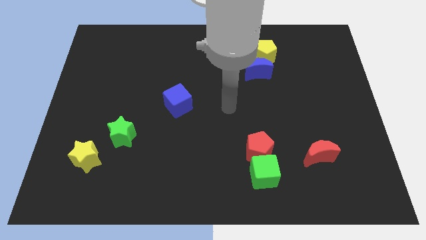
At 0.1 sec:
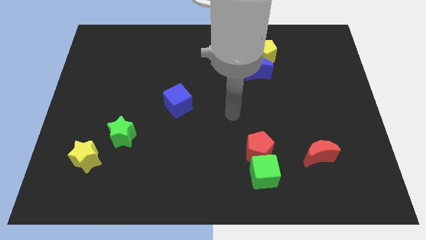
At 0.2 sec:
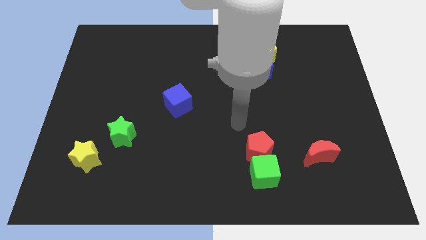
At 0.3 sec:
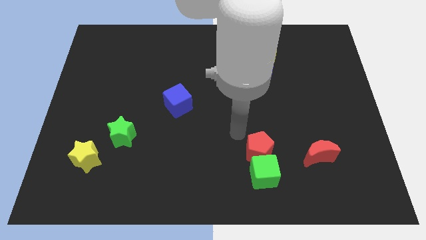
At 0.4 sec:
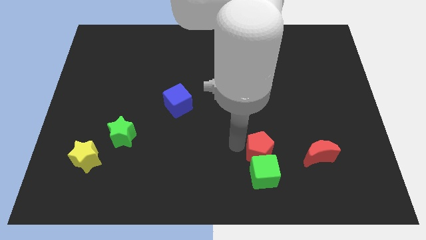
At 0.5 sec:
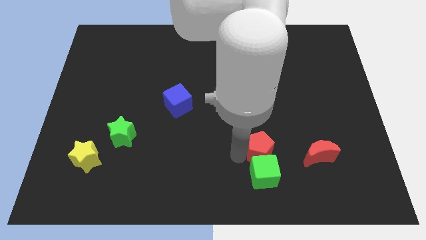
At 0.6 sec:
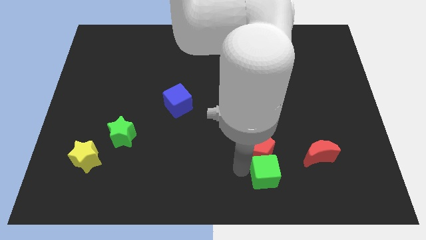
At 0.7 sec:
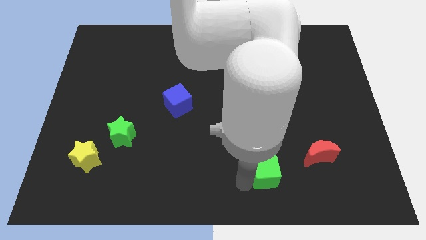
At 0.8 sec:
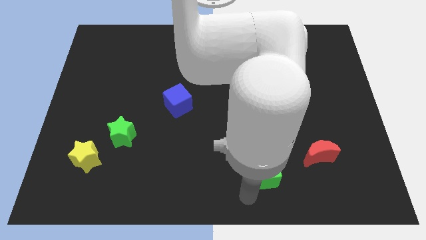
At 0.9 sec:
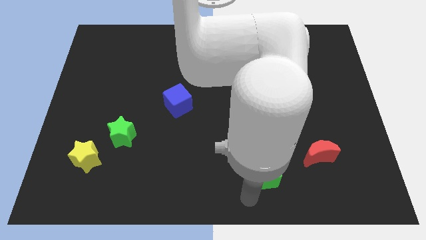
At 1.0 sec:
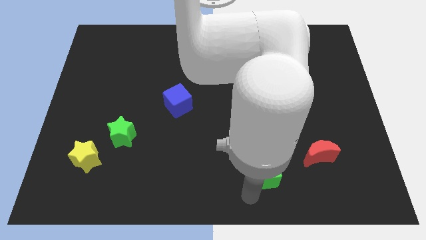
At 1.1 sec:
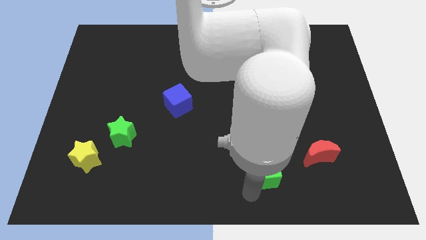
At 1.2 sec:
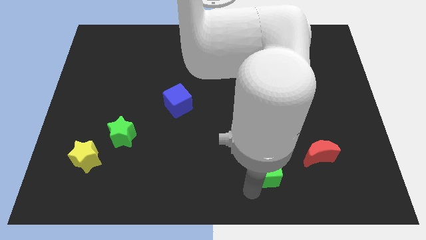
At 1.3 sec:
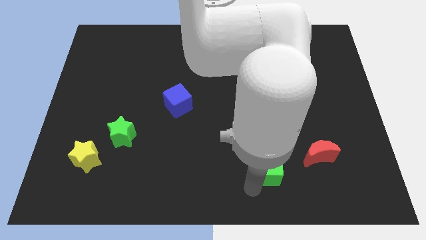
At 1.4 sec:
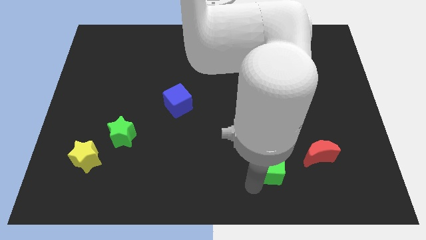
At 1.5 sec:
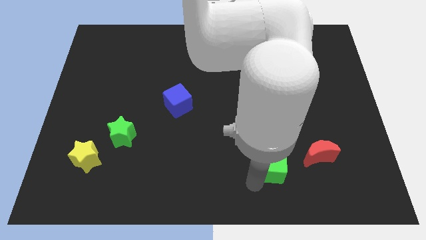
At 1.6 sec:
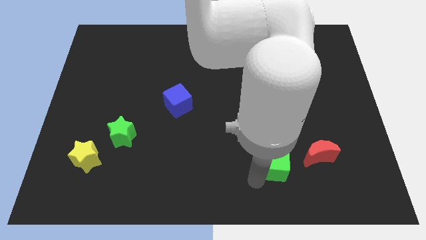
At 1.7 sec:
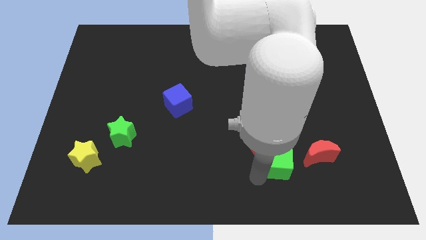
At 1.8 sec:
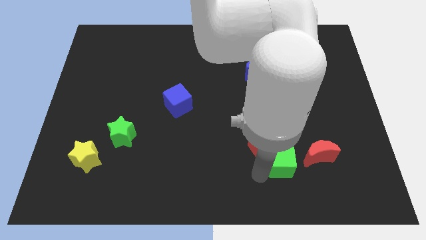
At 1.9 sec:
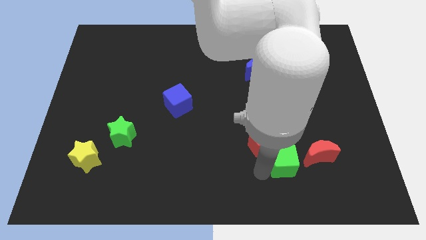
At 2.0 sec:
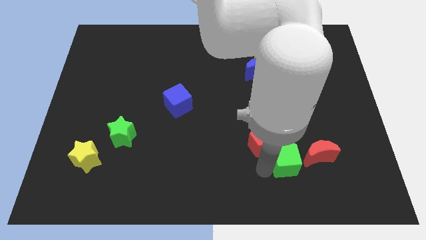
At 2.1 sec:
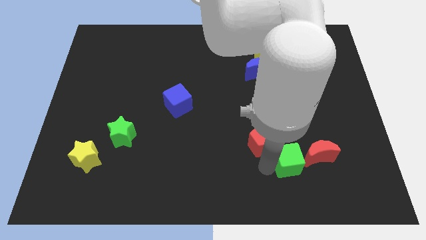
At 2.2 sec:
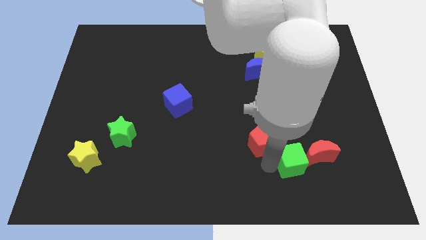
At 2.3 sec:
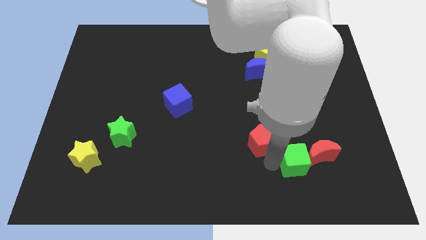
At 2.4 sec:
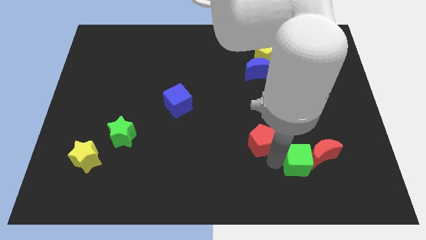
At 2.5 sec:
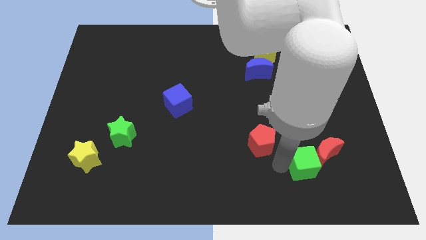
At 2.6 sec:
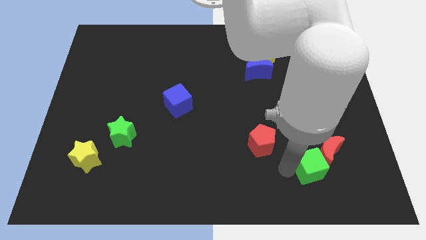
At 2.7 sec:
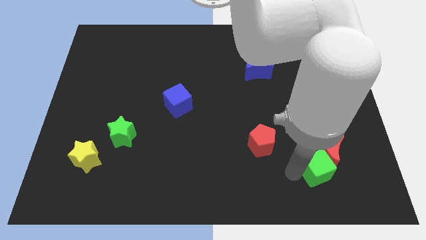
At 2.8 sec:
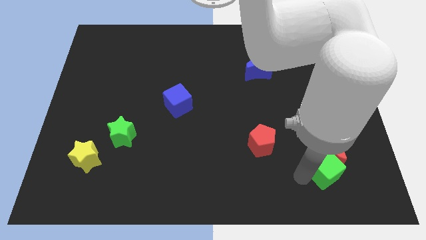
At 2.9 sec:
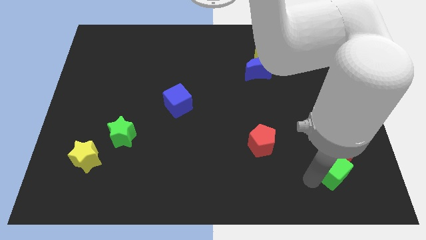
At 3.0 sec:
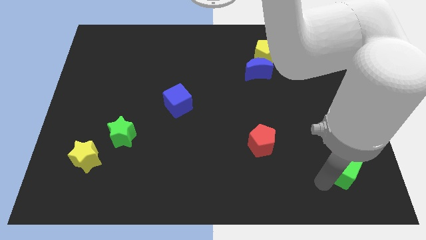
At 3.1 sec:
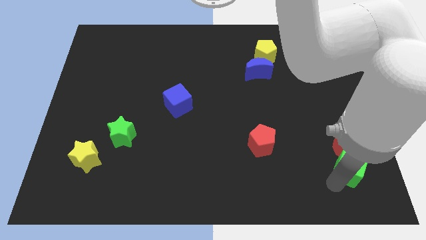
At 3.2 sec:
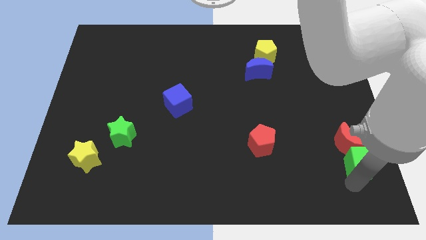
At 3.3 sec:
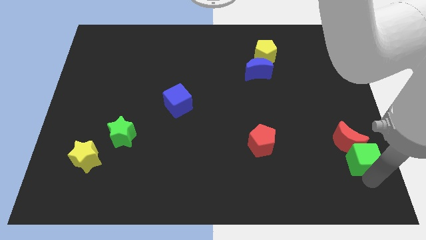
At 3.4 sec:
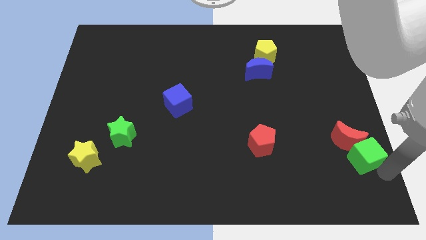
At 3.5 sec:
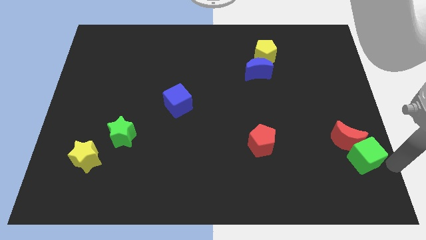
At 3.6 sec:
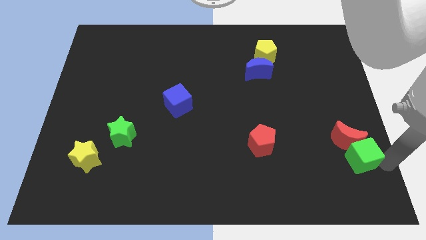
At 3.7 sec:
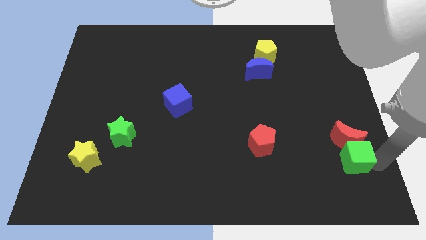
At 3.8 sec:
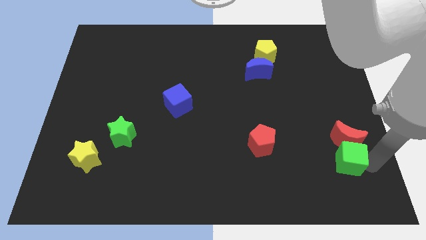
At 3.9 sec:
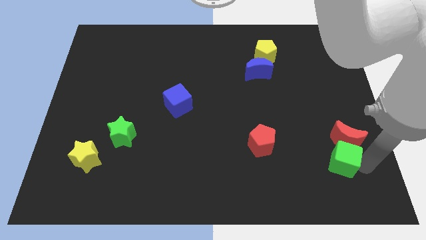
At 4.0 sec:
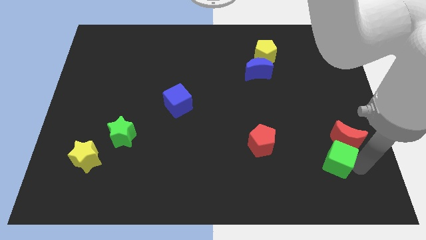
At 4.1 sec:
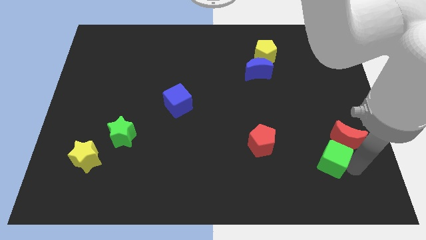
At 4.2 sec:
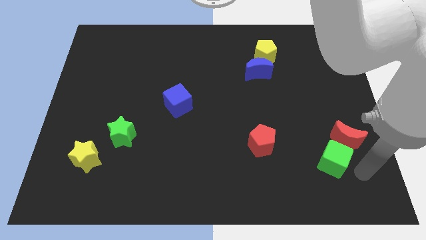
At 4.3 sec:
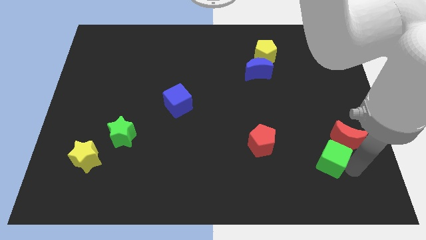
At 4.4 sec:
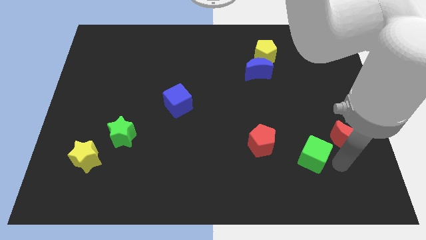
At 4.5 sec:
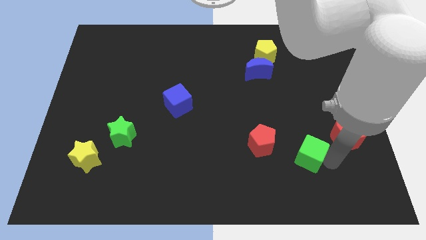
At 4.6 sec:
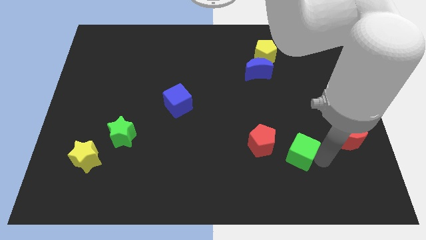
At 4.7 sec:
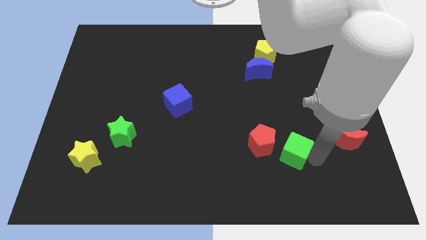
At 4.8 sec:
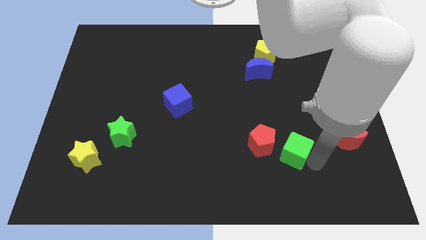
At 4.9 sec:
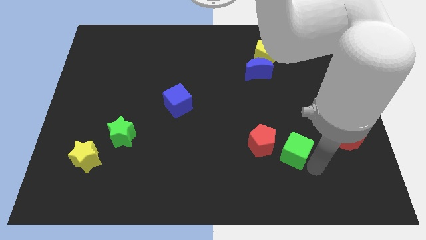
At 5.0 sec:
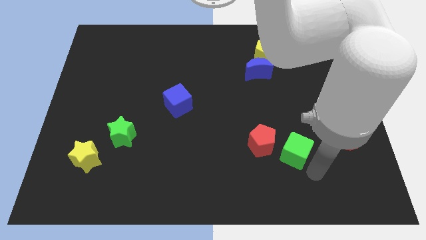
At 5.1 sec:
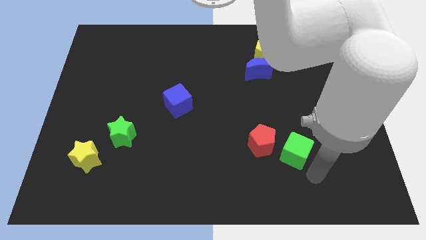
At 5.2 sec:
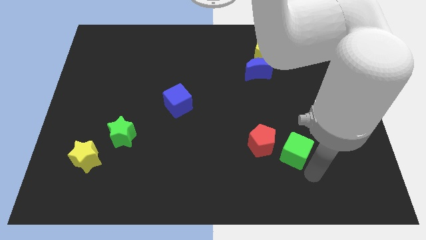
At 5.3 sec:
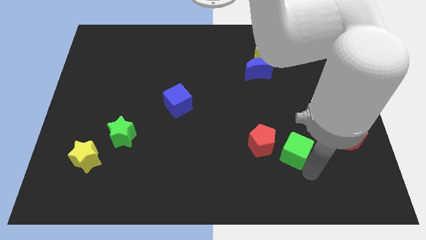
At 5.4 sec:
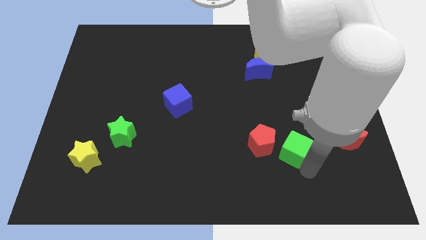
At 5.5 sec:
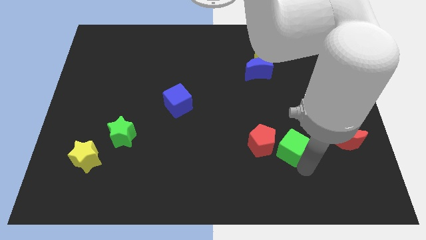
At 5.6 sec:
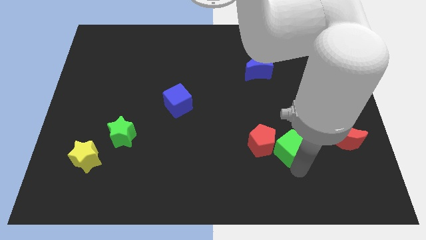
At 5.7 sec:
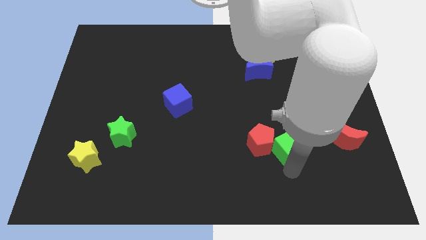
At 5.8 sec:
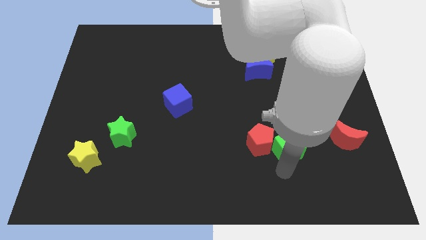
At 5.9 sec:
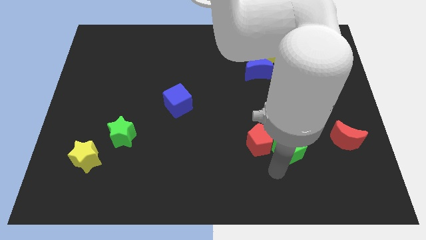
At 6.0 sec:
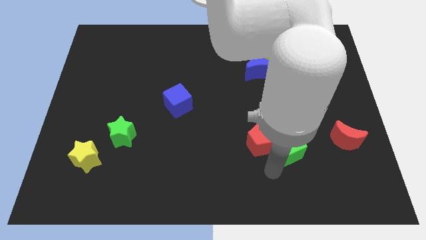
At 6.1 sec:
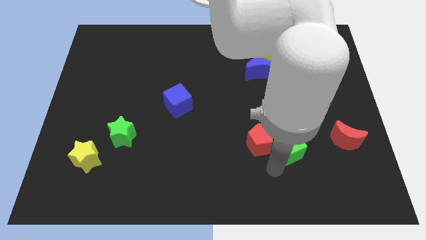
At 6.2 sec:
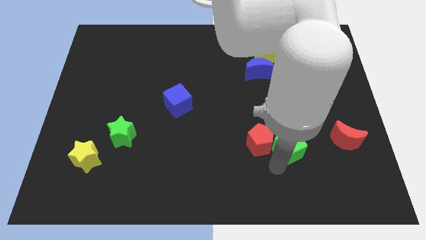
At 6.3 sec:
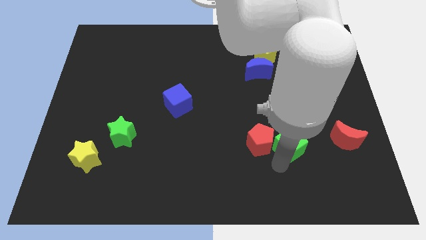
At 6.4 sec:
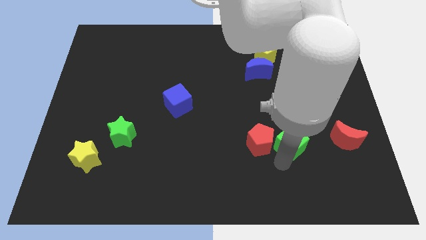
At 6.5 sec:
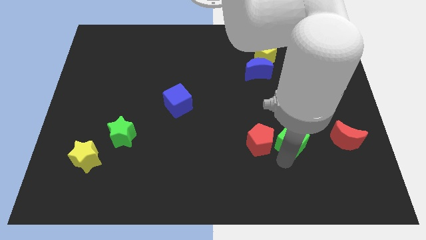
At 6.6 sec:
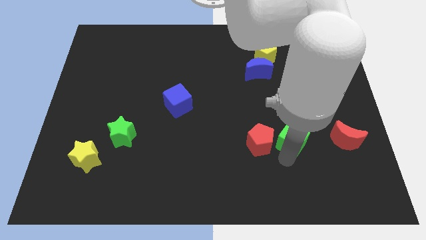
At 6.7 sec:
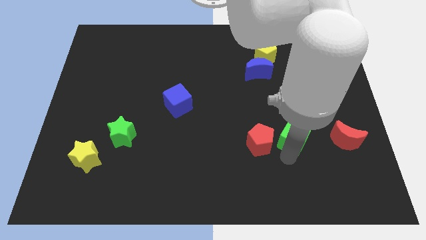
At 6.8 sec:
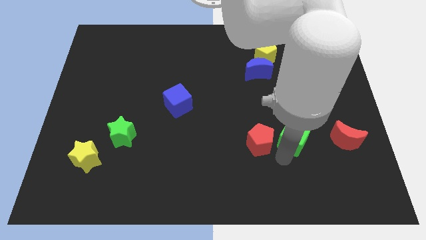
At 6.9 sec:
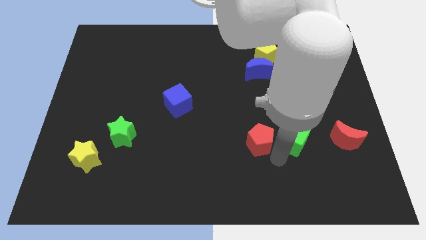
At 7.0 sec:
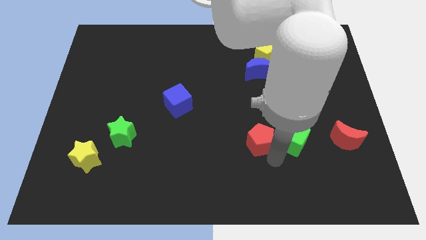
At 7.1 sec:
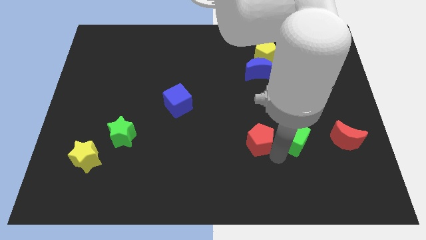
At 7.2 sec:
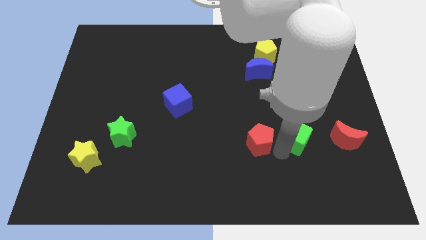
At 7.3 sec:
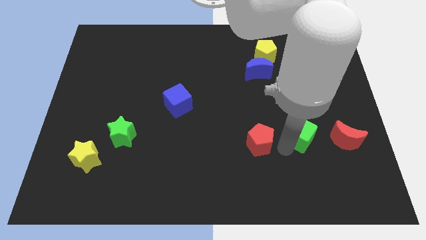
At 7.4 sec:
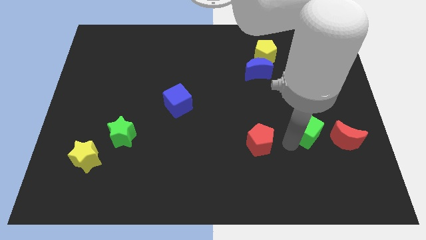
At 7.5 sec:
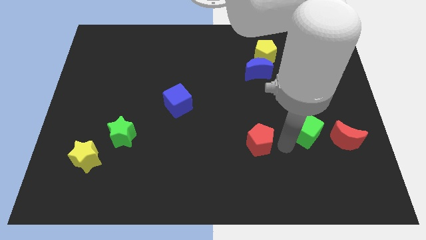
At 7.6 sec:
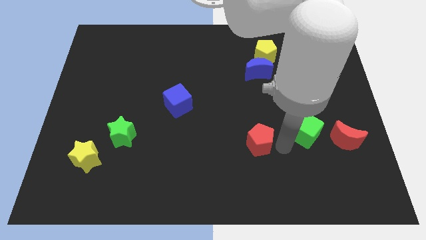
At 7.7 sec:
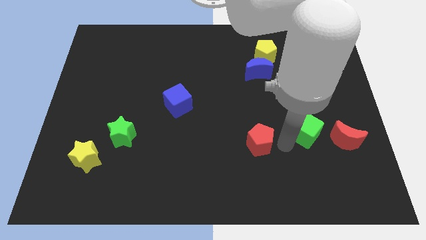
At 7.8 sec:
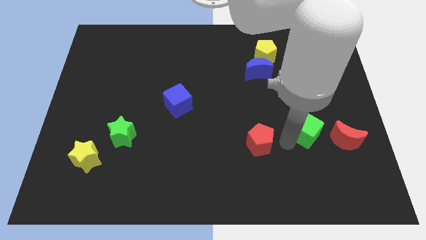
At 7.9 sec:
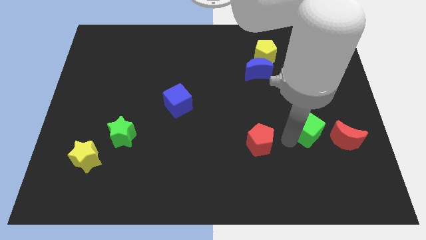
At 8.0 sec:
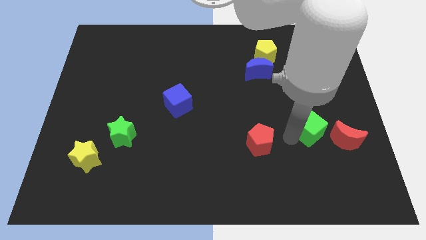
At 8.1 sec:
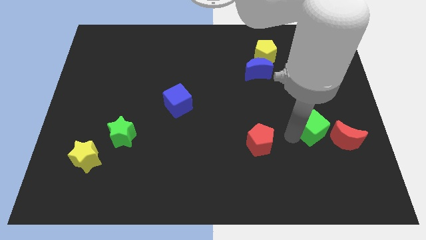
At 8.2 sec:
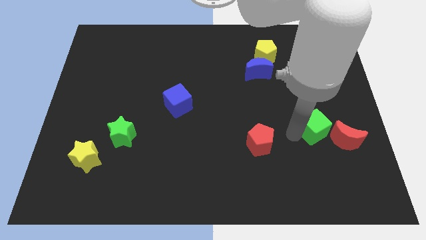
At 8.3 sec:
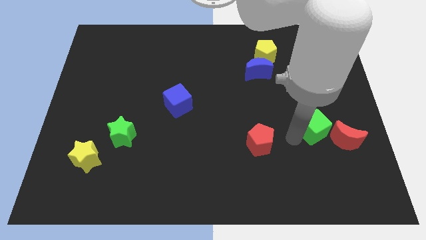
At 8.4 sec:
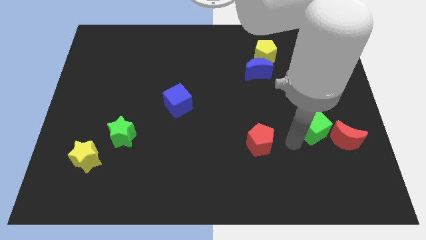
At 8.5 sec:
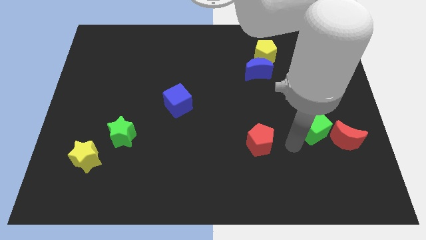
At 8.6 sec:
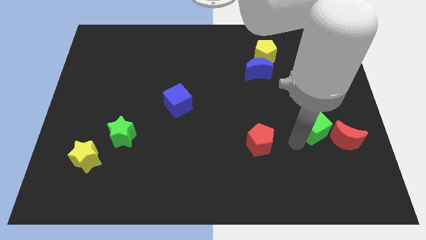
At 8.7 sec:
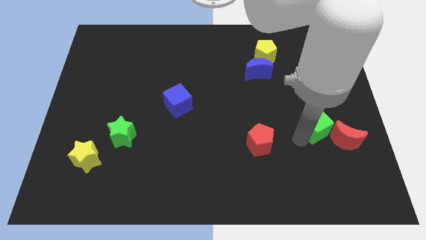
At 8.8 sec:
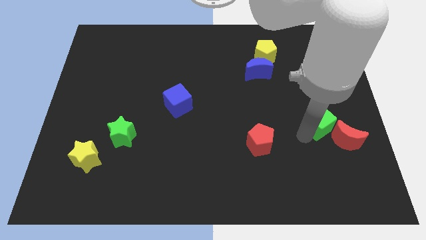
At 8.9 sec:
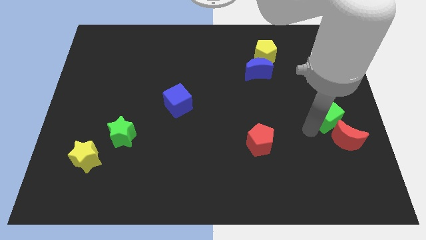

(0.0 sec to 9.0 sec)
put the green cube to the right side of the board
